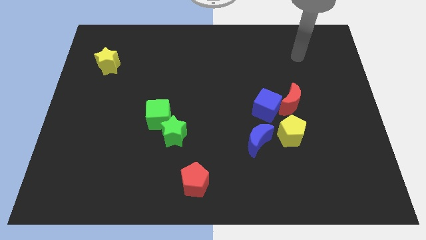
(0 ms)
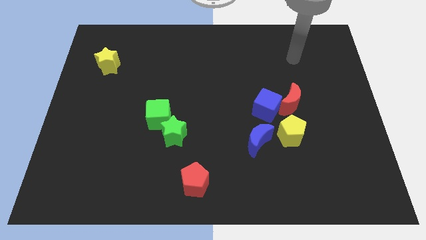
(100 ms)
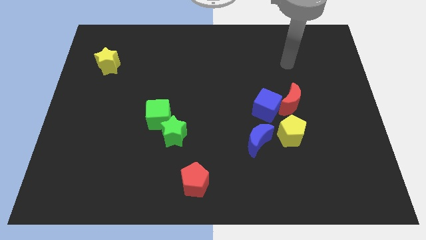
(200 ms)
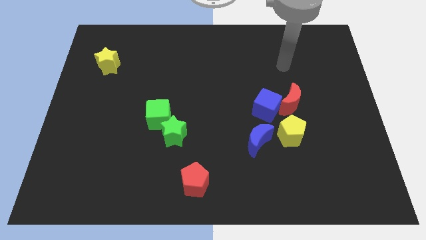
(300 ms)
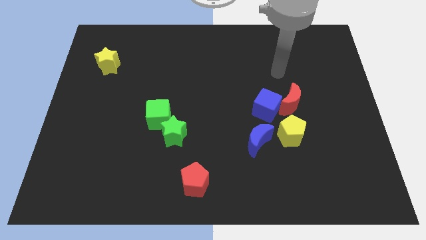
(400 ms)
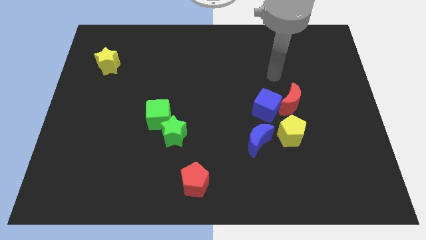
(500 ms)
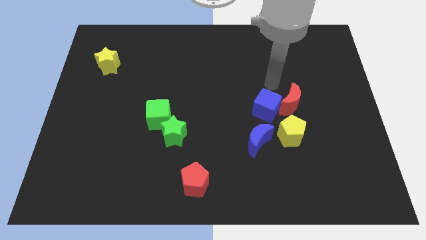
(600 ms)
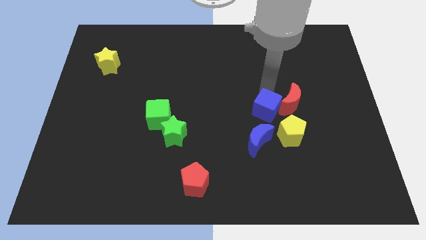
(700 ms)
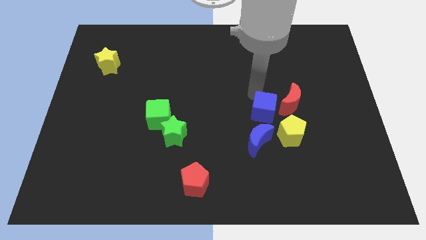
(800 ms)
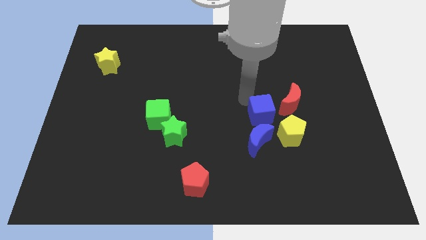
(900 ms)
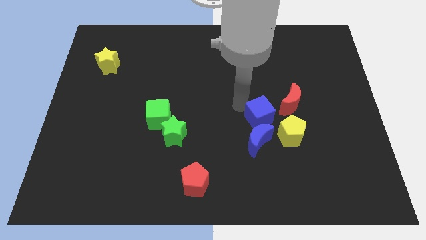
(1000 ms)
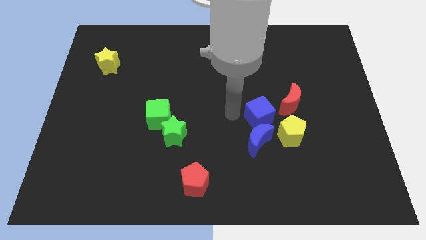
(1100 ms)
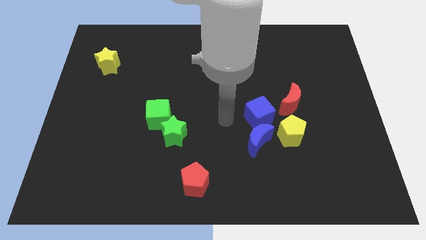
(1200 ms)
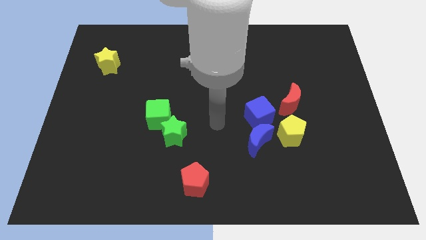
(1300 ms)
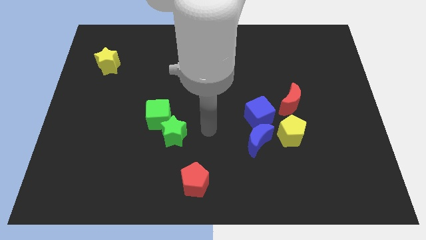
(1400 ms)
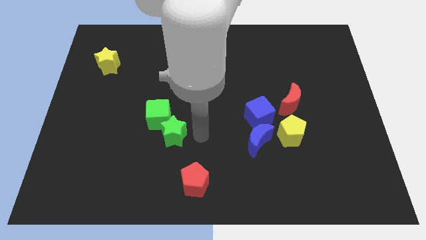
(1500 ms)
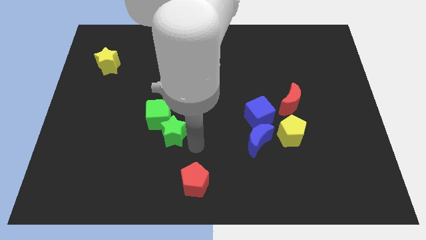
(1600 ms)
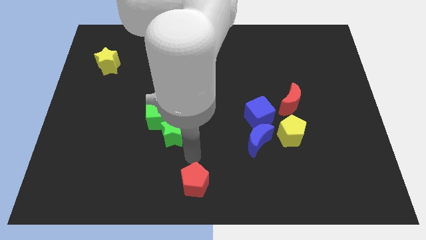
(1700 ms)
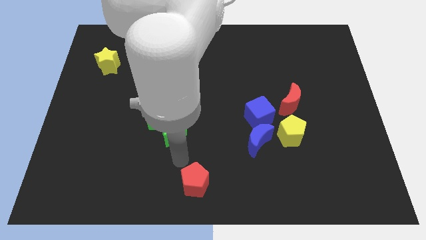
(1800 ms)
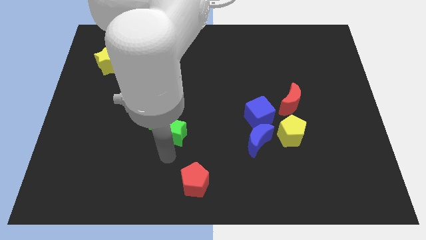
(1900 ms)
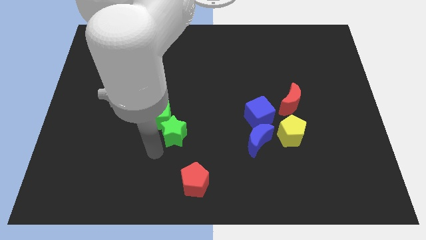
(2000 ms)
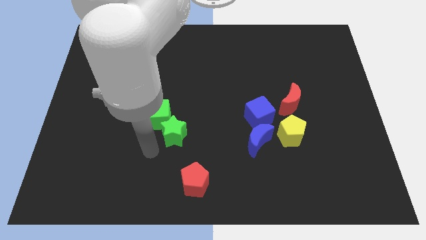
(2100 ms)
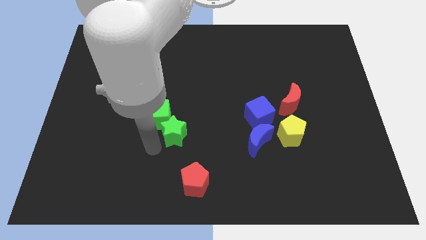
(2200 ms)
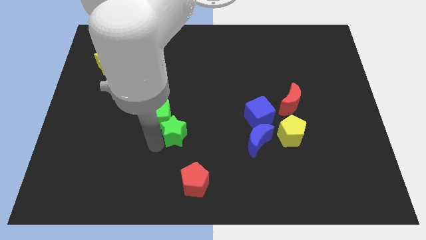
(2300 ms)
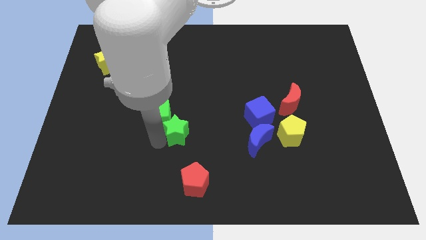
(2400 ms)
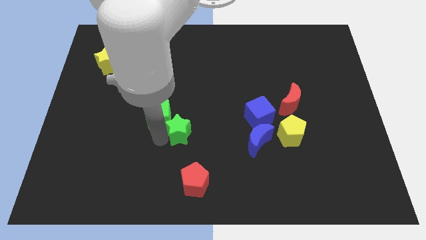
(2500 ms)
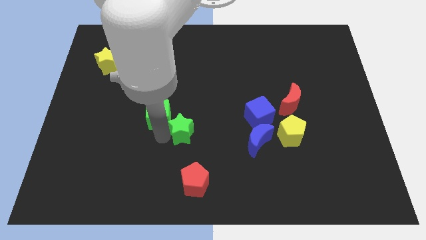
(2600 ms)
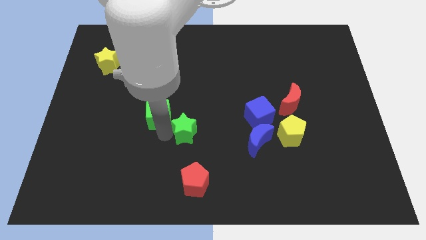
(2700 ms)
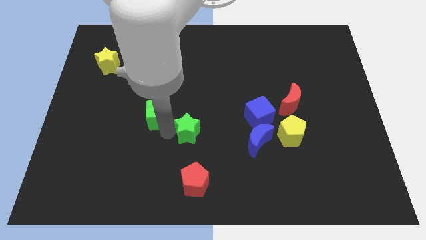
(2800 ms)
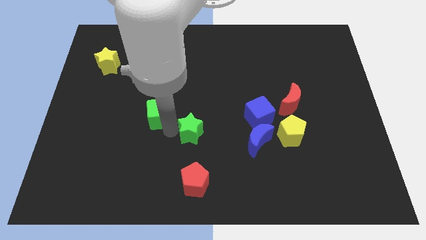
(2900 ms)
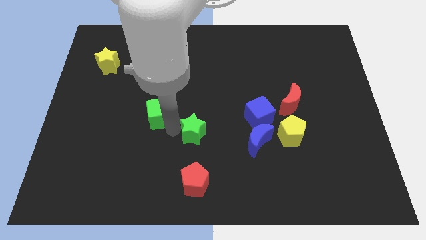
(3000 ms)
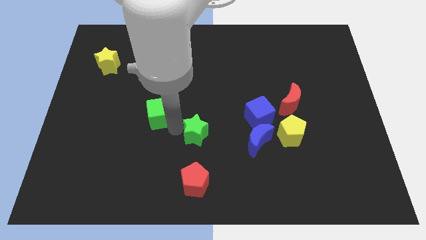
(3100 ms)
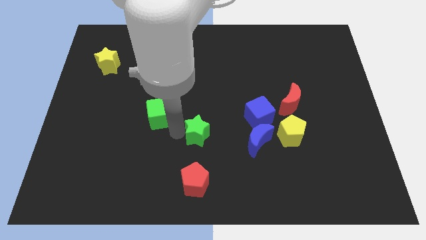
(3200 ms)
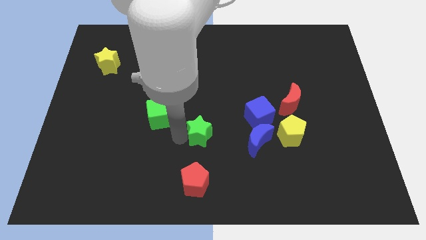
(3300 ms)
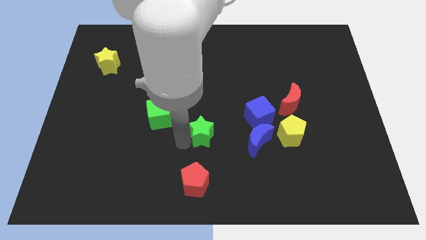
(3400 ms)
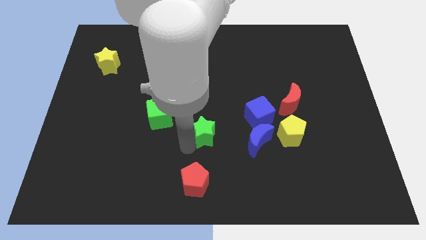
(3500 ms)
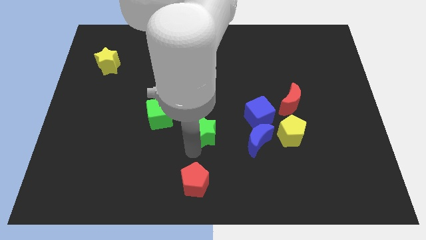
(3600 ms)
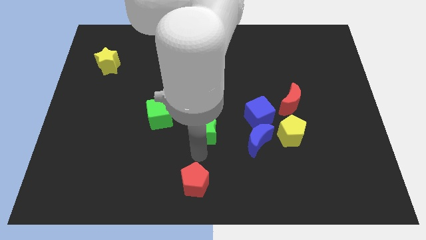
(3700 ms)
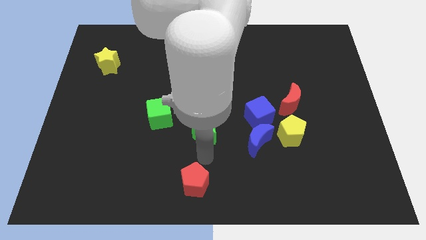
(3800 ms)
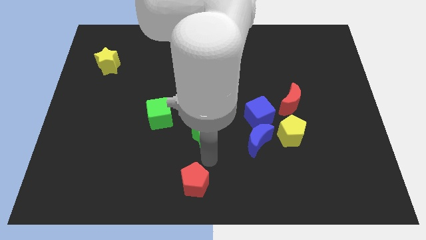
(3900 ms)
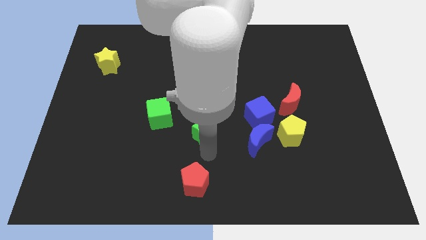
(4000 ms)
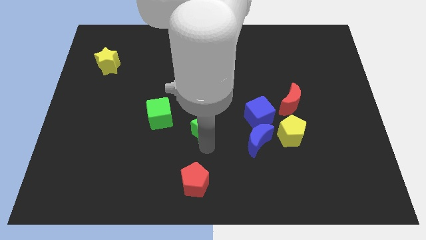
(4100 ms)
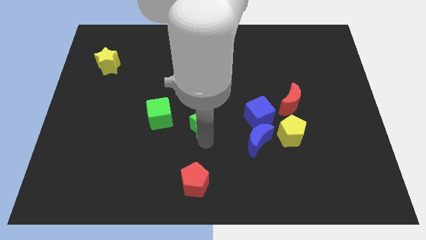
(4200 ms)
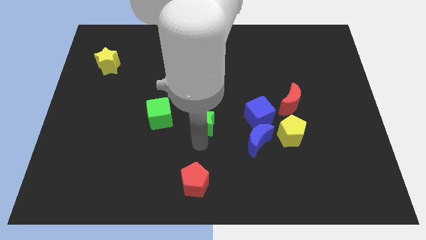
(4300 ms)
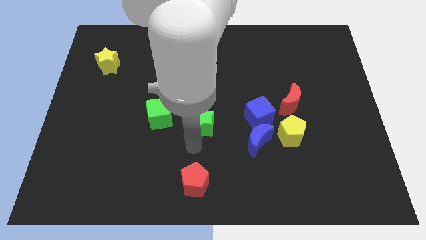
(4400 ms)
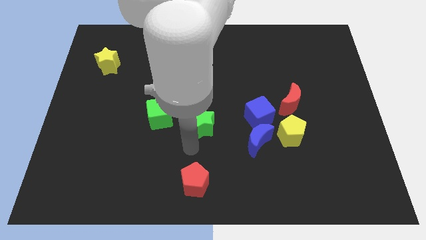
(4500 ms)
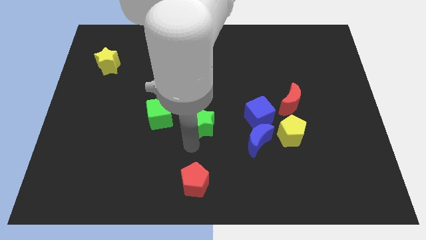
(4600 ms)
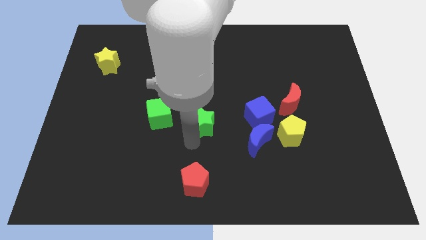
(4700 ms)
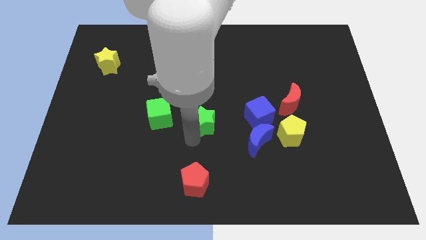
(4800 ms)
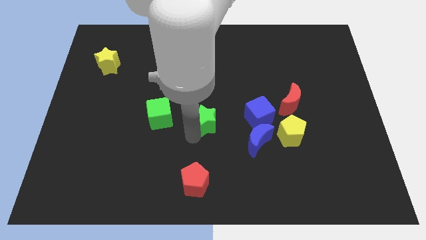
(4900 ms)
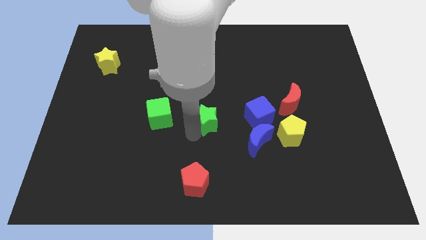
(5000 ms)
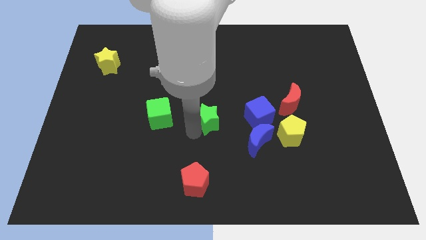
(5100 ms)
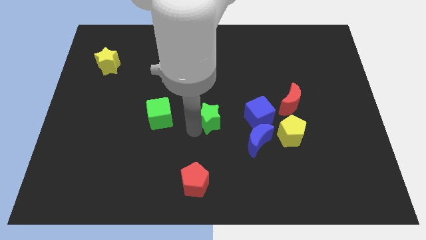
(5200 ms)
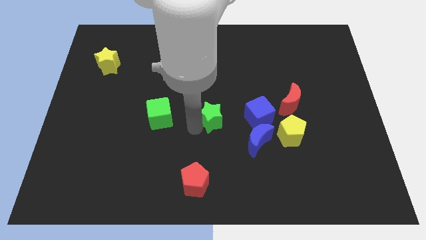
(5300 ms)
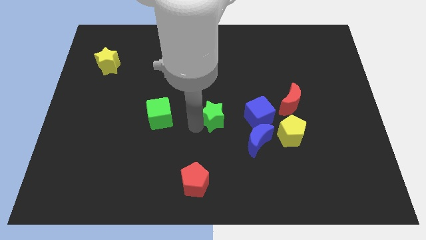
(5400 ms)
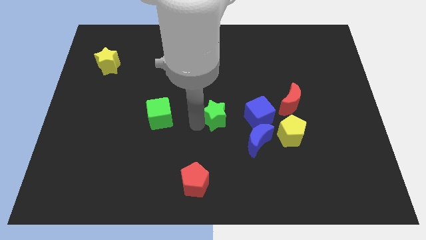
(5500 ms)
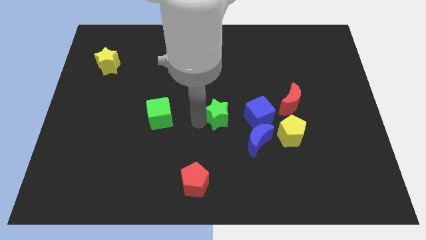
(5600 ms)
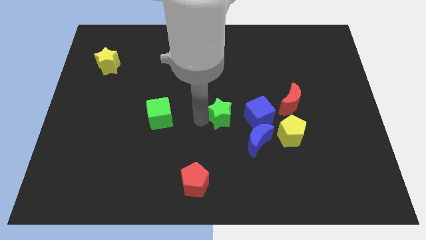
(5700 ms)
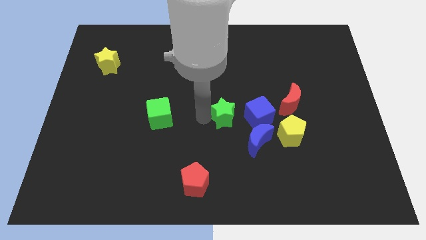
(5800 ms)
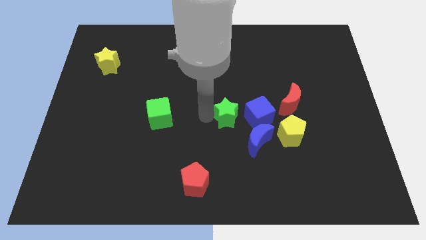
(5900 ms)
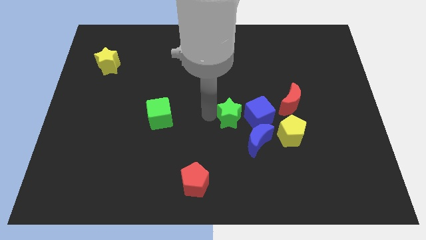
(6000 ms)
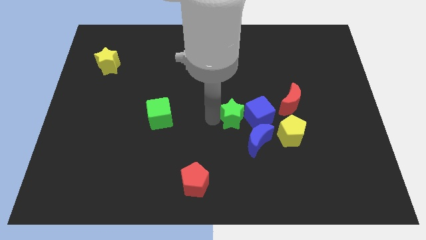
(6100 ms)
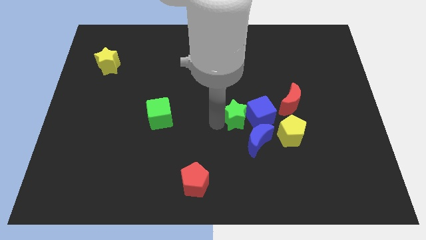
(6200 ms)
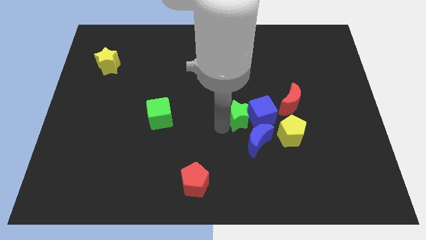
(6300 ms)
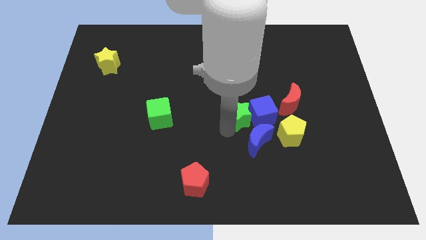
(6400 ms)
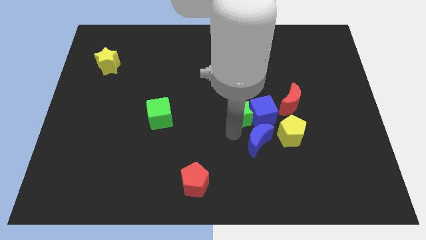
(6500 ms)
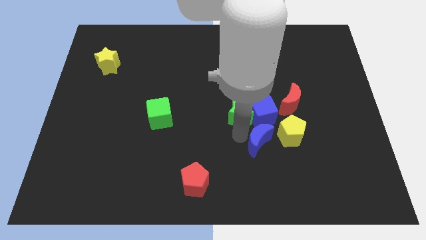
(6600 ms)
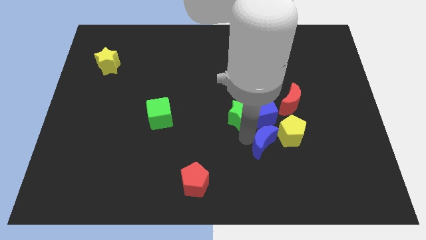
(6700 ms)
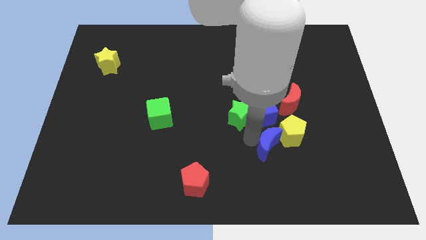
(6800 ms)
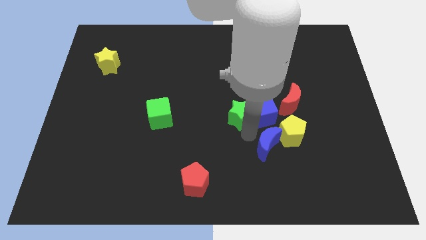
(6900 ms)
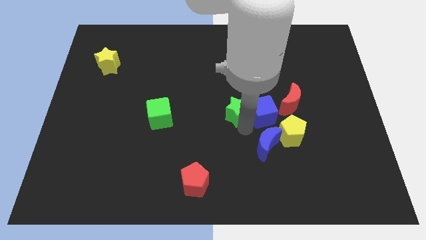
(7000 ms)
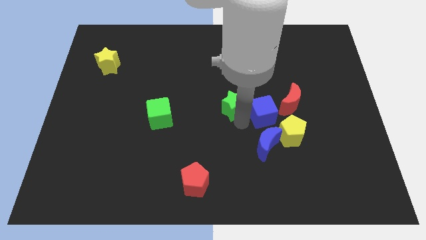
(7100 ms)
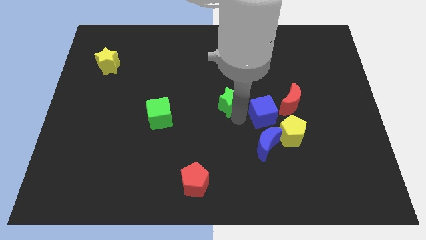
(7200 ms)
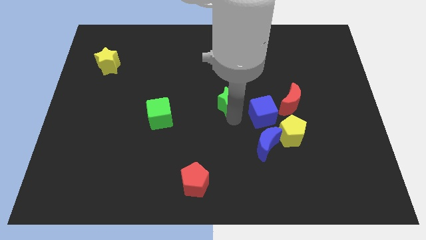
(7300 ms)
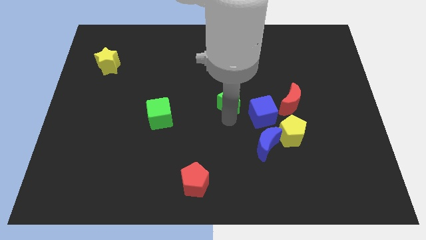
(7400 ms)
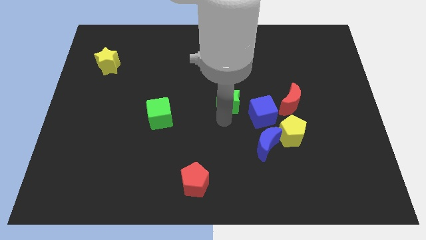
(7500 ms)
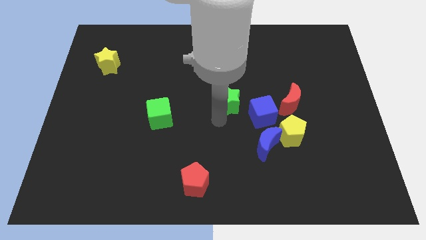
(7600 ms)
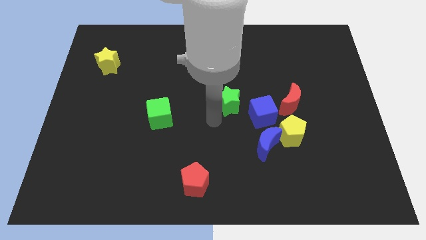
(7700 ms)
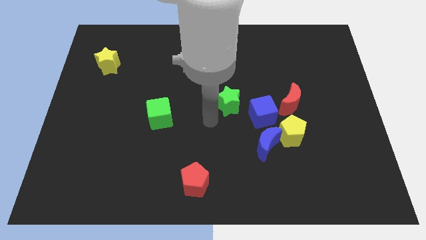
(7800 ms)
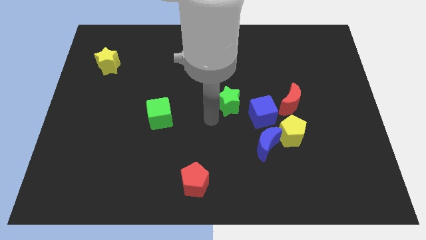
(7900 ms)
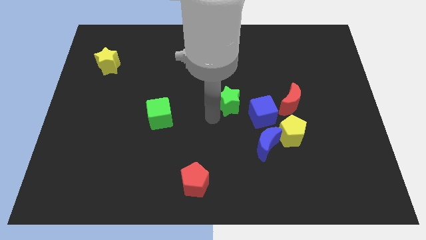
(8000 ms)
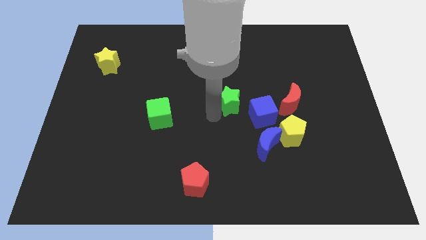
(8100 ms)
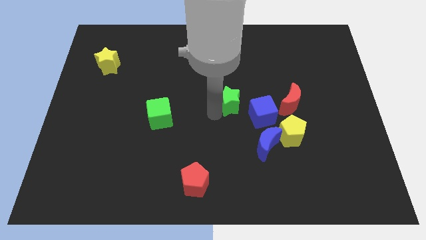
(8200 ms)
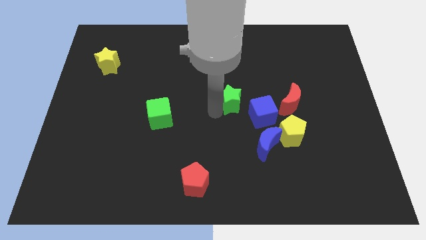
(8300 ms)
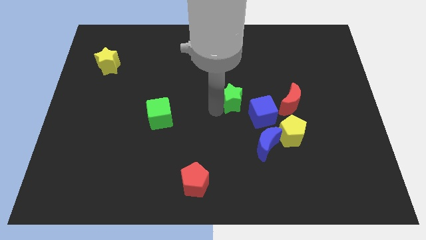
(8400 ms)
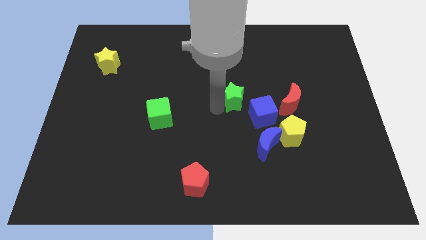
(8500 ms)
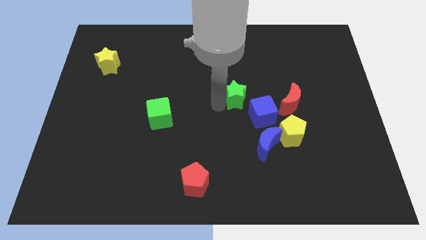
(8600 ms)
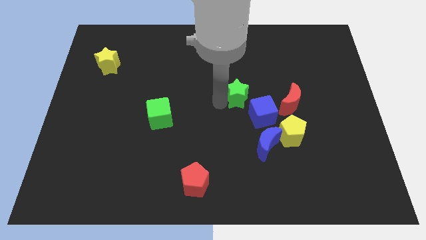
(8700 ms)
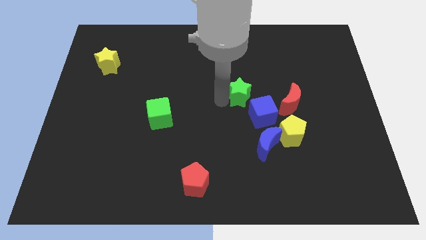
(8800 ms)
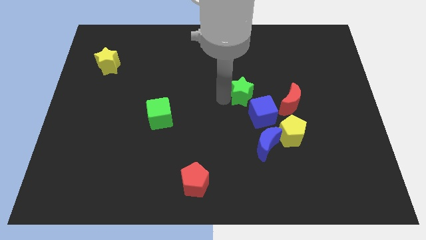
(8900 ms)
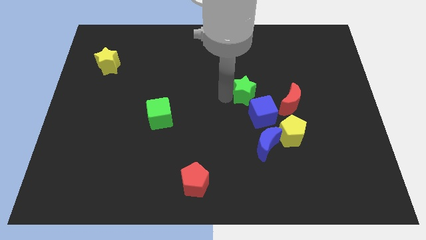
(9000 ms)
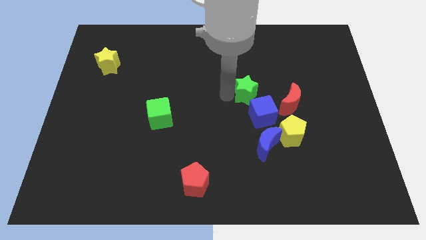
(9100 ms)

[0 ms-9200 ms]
move the green star diagonally upwards and right
